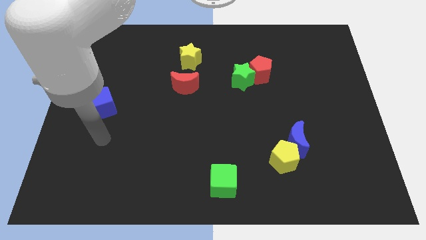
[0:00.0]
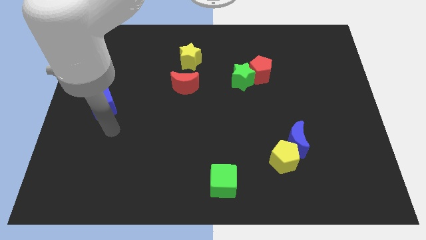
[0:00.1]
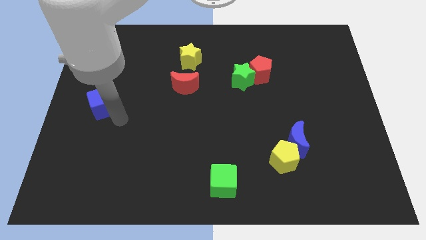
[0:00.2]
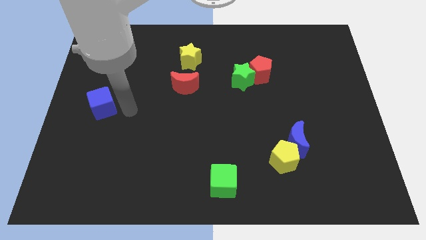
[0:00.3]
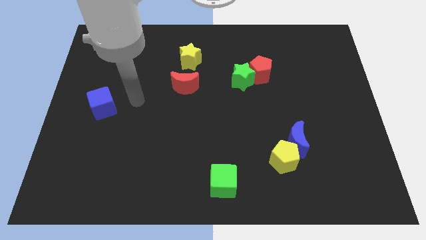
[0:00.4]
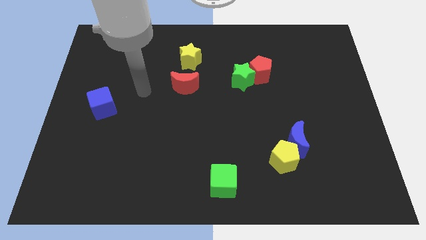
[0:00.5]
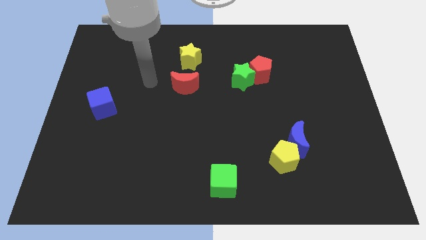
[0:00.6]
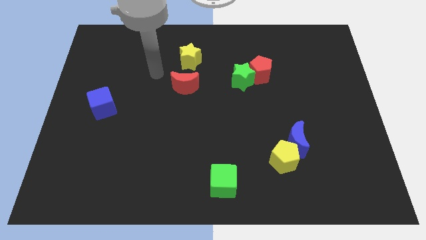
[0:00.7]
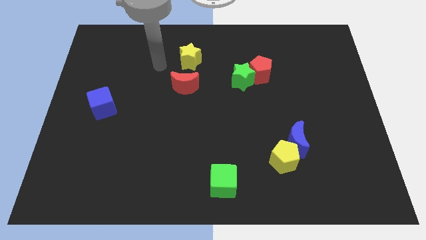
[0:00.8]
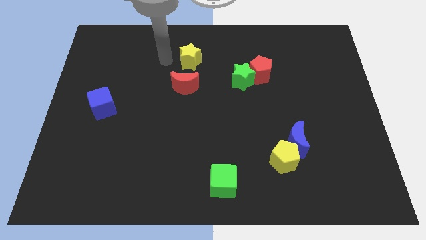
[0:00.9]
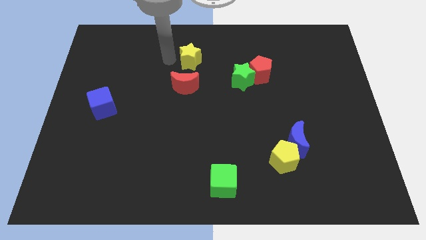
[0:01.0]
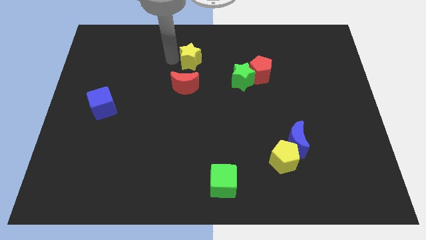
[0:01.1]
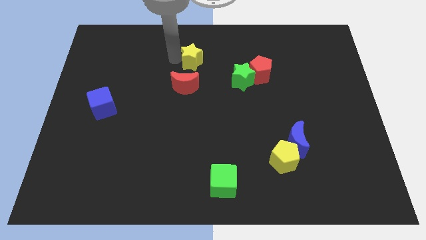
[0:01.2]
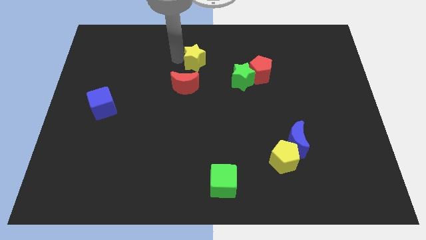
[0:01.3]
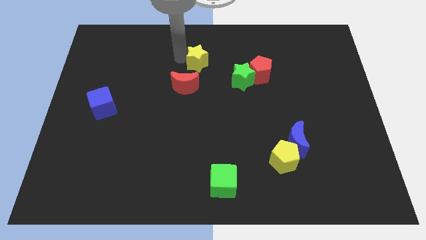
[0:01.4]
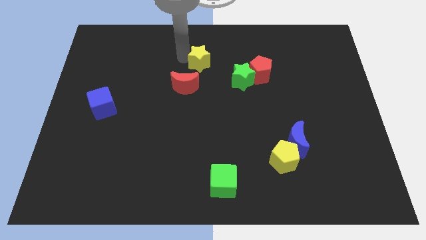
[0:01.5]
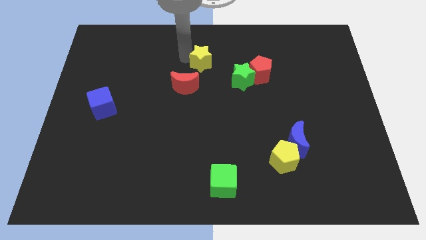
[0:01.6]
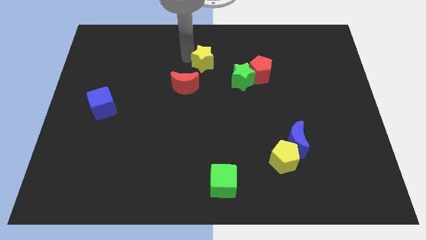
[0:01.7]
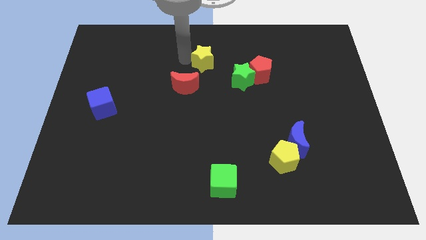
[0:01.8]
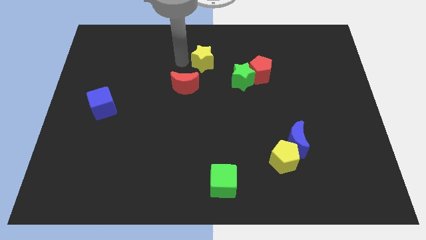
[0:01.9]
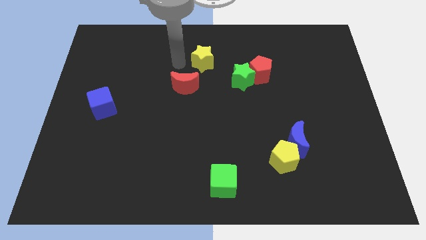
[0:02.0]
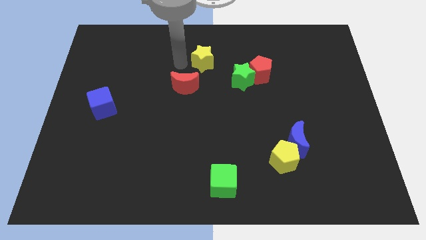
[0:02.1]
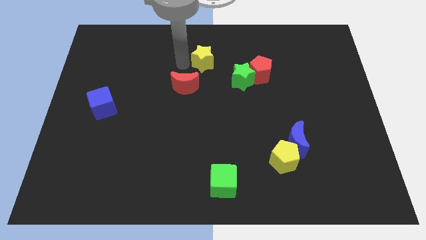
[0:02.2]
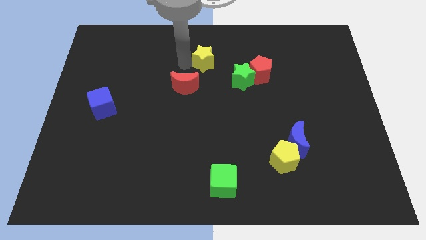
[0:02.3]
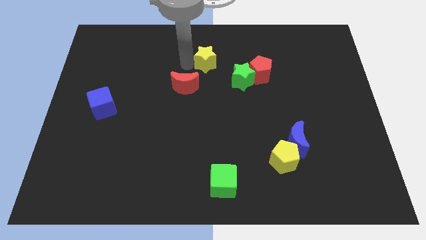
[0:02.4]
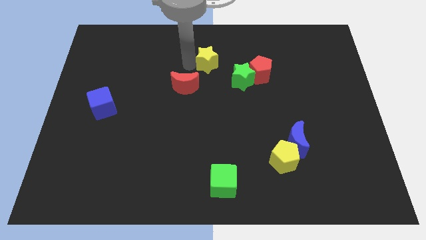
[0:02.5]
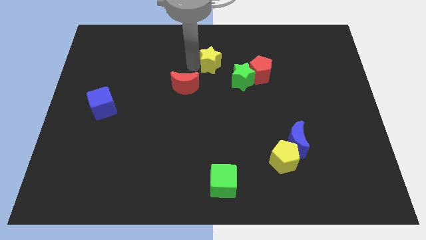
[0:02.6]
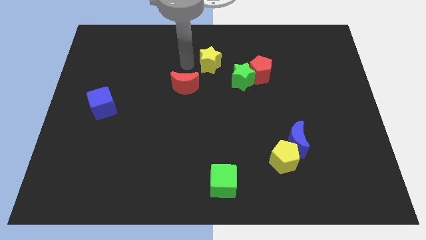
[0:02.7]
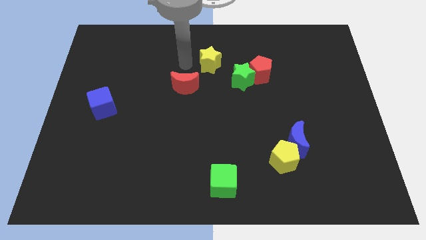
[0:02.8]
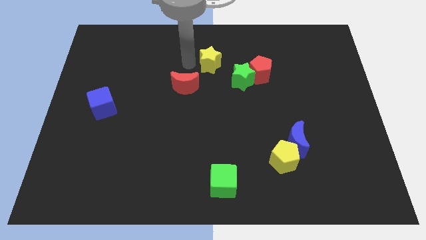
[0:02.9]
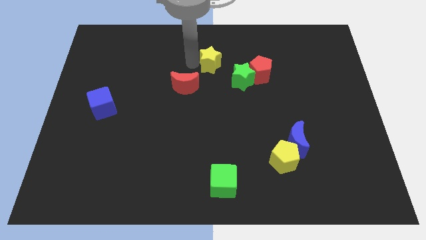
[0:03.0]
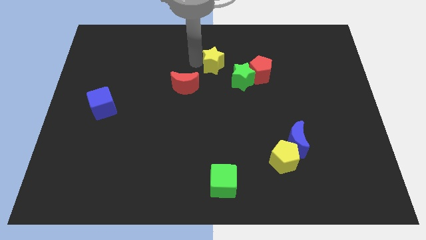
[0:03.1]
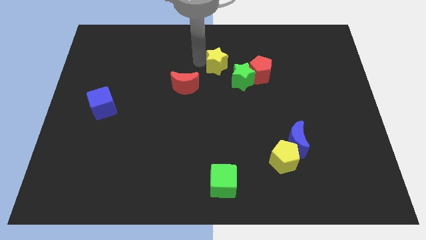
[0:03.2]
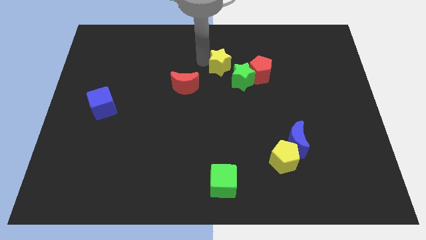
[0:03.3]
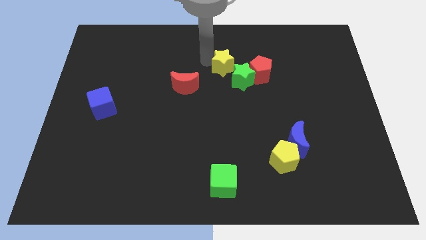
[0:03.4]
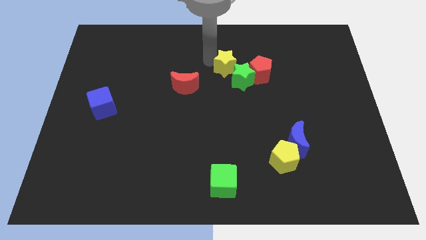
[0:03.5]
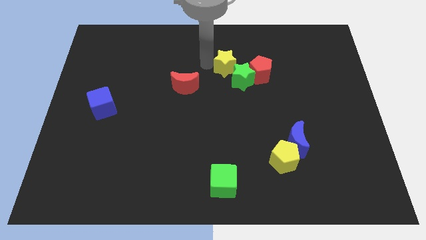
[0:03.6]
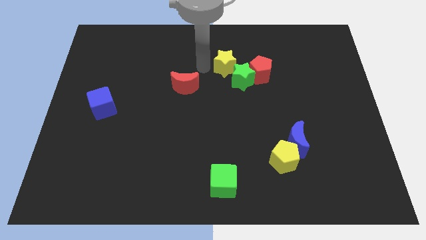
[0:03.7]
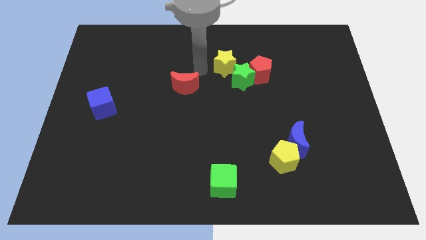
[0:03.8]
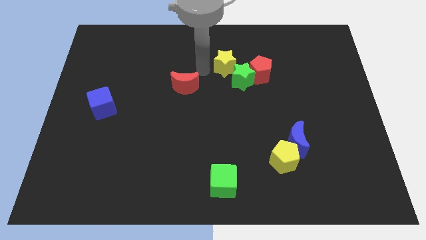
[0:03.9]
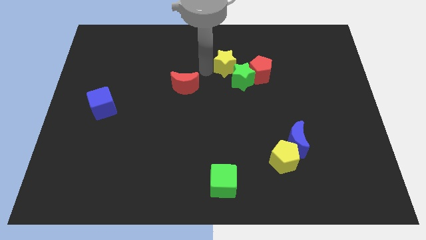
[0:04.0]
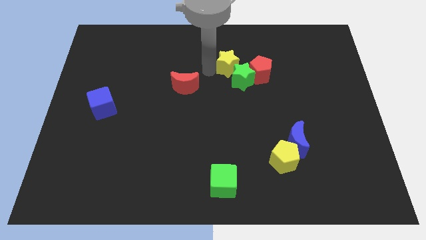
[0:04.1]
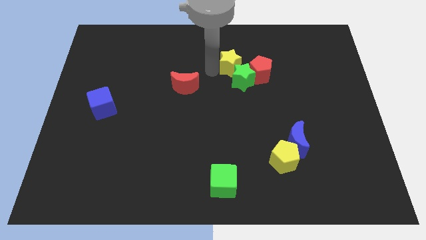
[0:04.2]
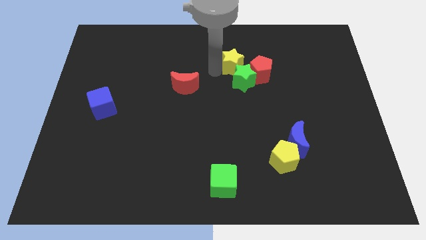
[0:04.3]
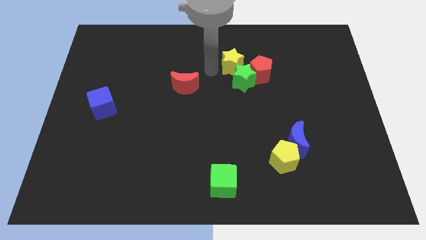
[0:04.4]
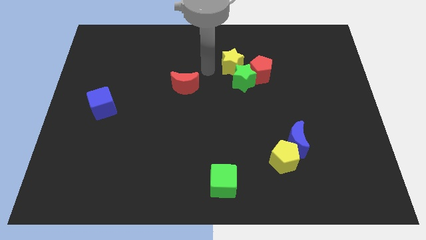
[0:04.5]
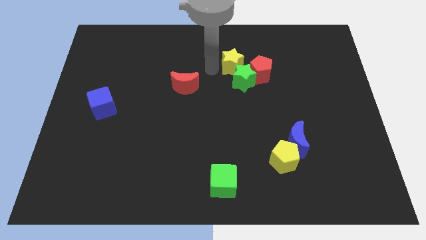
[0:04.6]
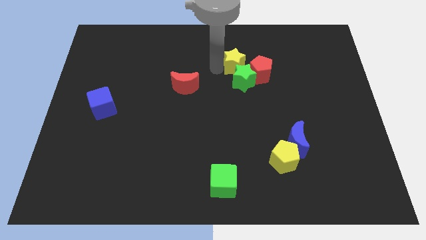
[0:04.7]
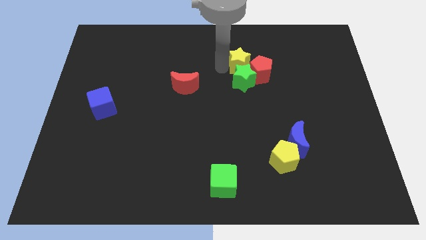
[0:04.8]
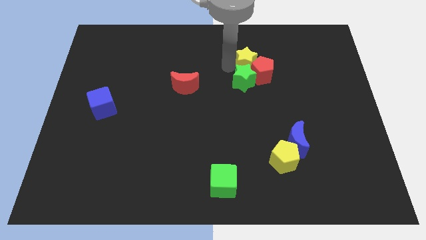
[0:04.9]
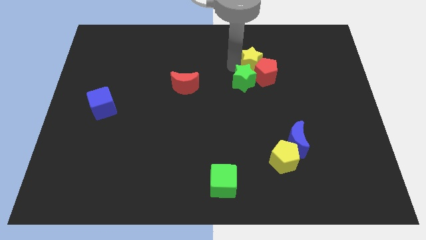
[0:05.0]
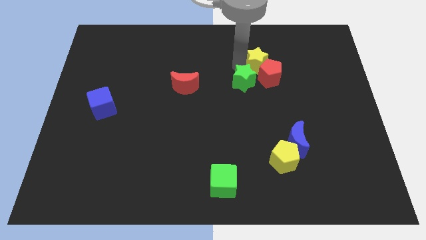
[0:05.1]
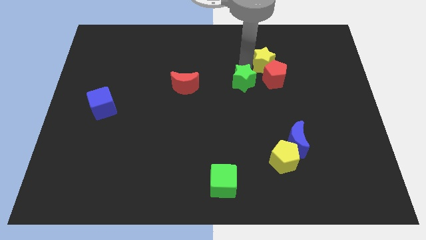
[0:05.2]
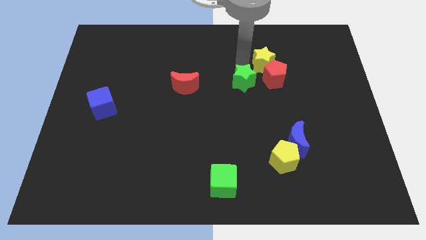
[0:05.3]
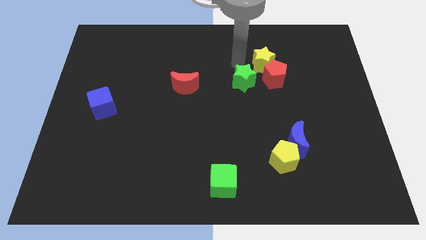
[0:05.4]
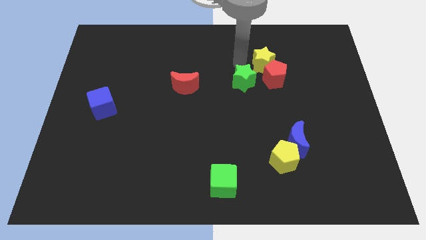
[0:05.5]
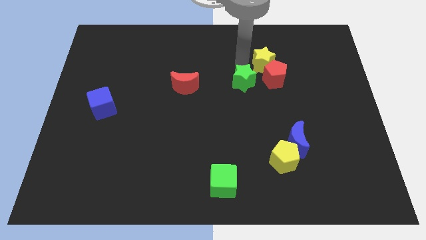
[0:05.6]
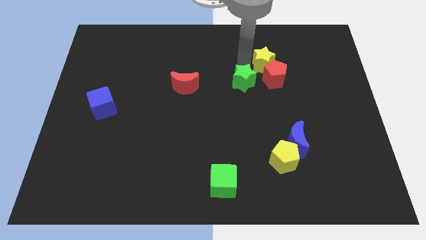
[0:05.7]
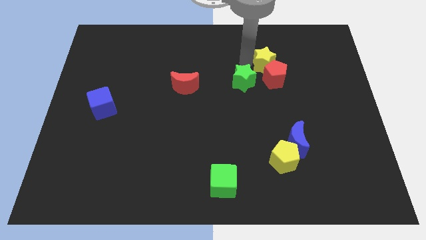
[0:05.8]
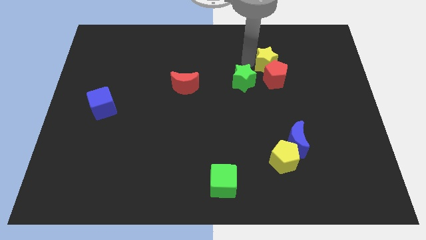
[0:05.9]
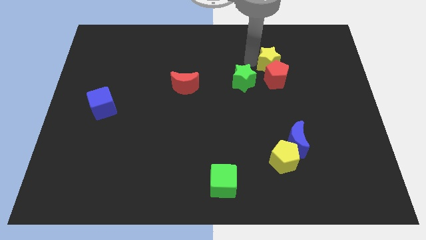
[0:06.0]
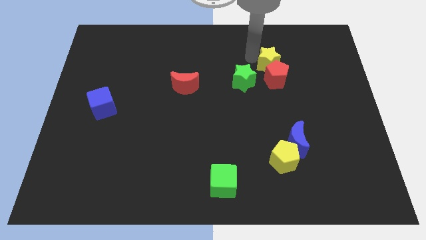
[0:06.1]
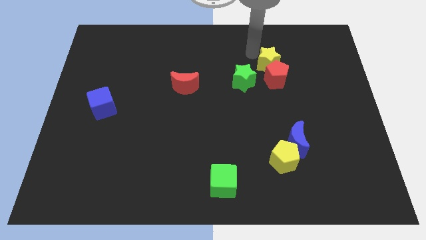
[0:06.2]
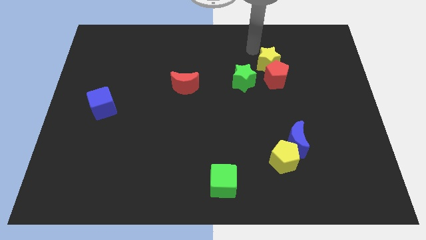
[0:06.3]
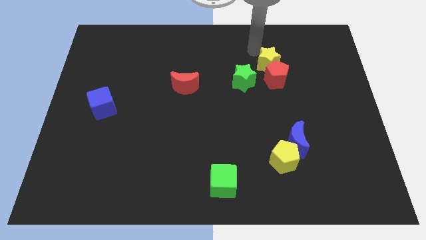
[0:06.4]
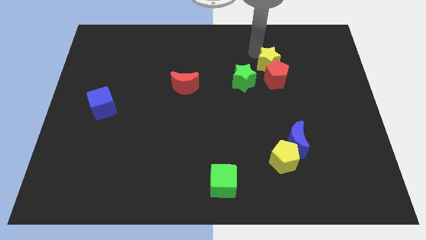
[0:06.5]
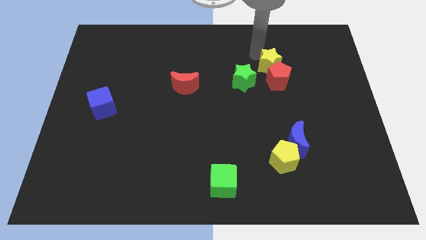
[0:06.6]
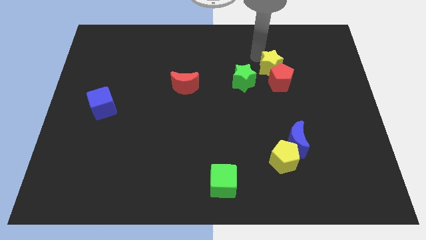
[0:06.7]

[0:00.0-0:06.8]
push the yellow star right of the green star

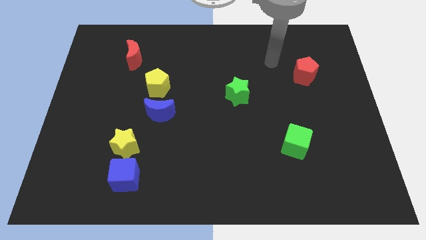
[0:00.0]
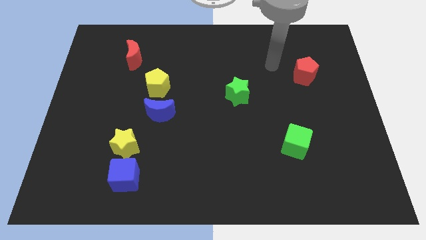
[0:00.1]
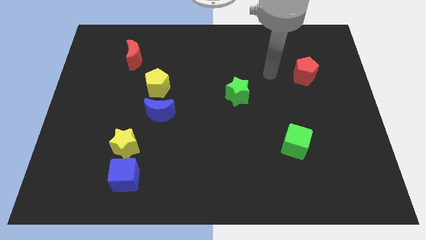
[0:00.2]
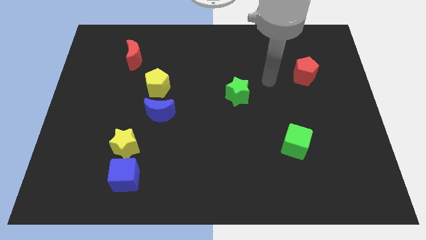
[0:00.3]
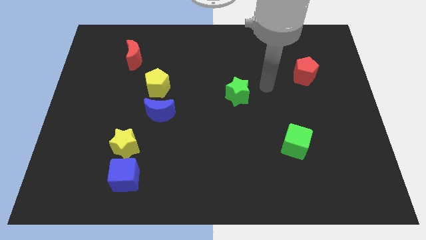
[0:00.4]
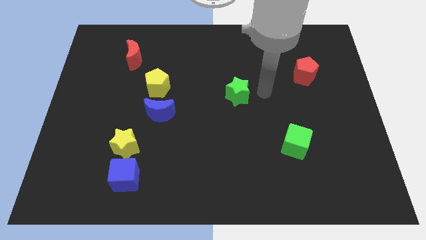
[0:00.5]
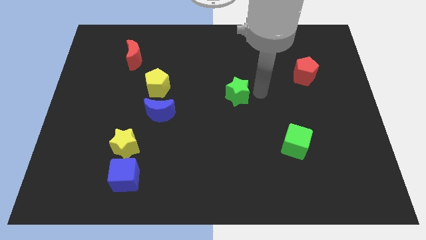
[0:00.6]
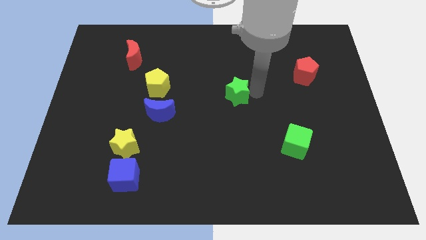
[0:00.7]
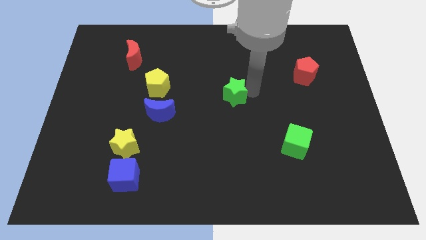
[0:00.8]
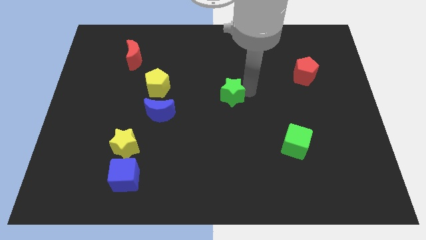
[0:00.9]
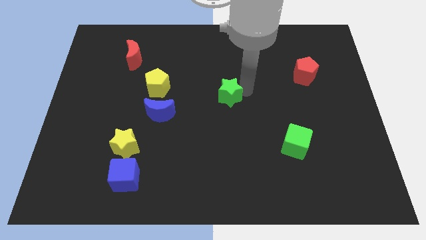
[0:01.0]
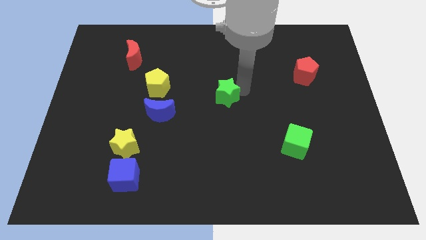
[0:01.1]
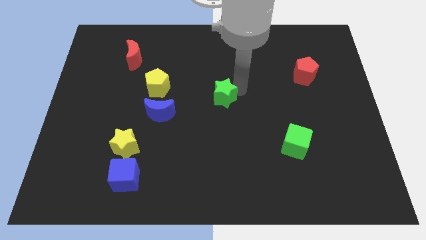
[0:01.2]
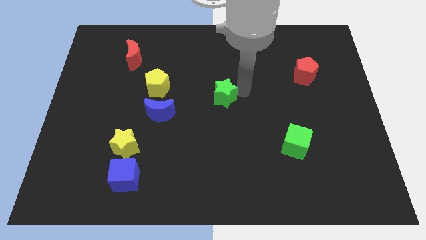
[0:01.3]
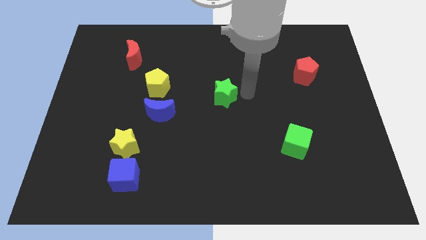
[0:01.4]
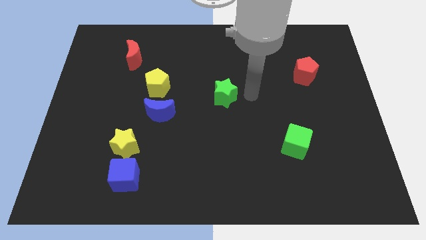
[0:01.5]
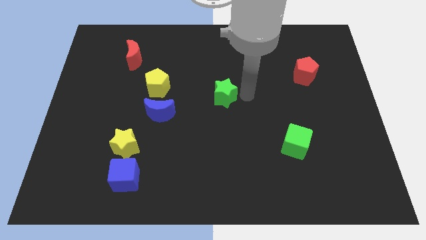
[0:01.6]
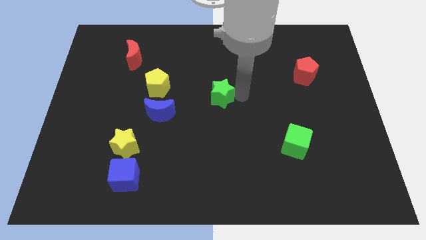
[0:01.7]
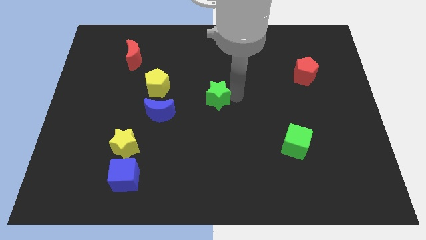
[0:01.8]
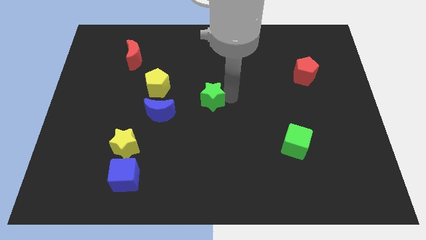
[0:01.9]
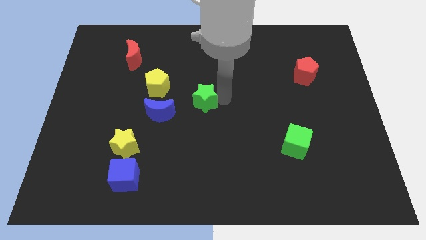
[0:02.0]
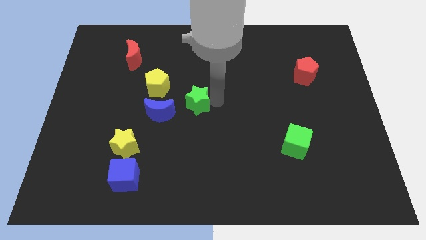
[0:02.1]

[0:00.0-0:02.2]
move the green star to the top right side of the blue moon
